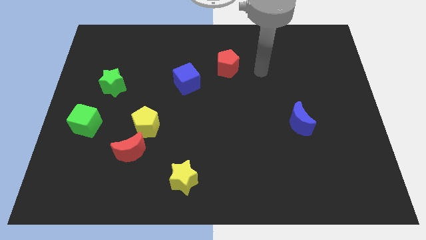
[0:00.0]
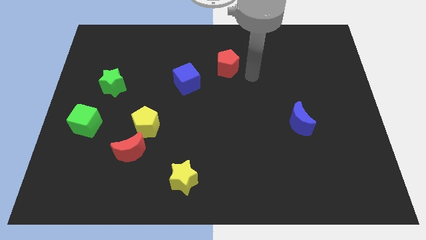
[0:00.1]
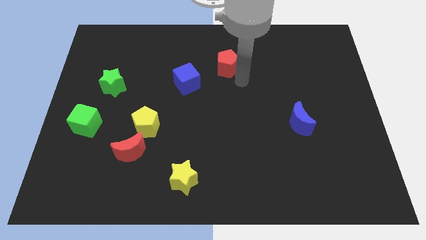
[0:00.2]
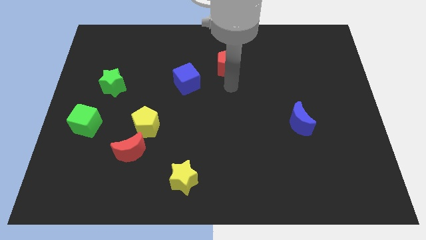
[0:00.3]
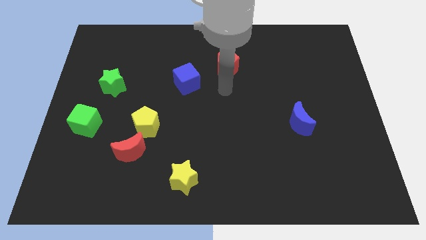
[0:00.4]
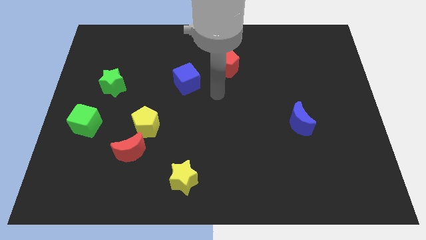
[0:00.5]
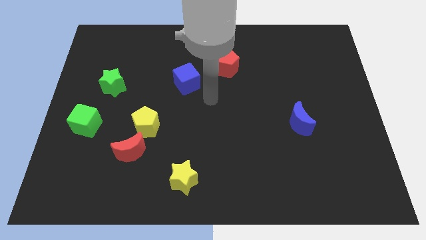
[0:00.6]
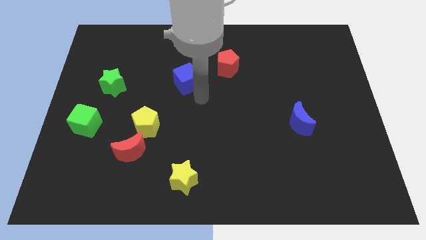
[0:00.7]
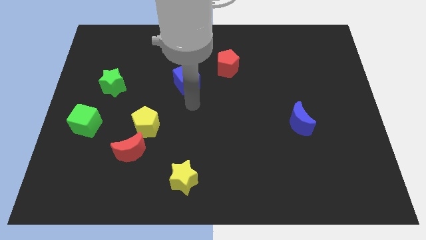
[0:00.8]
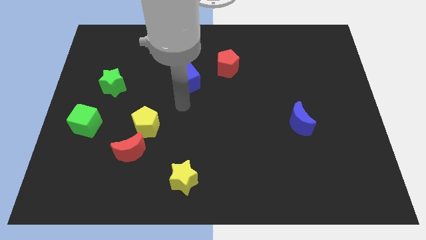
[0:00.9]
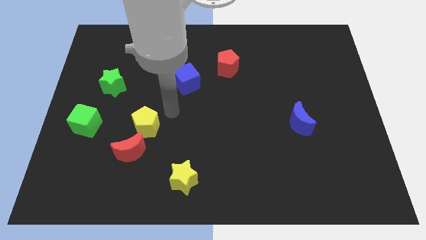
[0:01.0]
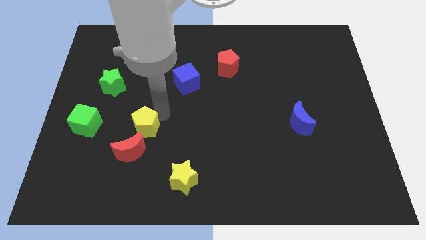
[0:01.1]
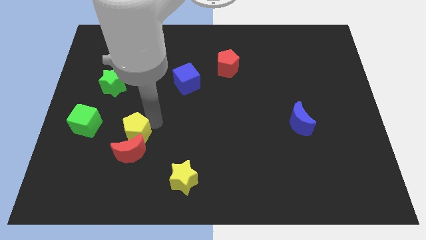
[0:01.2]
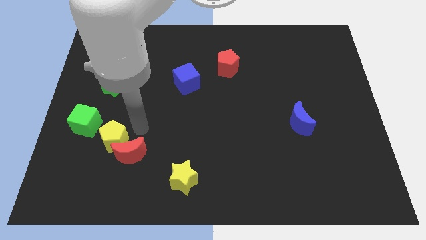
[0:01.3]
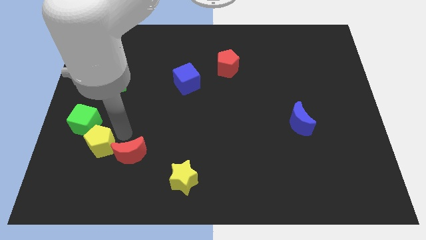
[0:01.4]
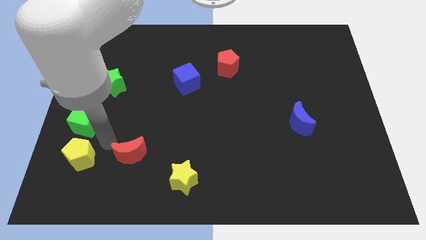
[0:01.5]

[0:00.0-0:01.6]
separate the red moon from the yellow pentagon

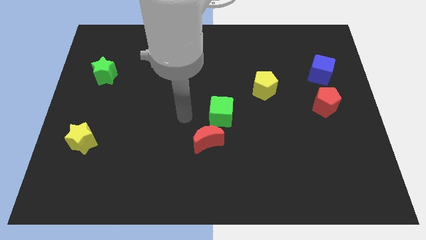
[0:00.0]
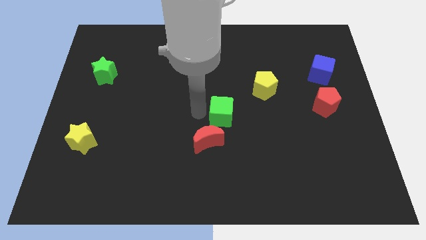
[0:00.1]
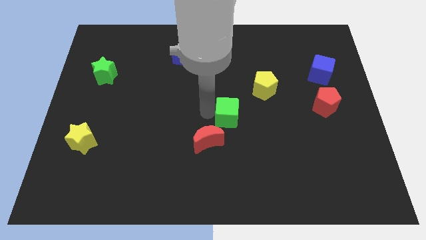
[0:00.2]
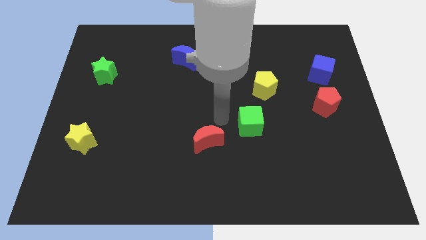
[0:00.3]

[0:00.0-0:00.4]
move the red moon away from the green cube

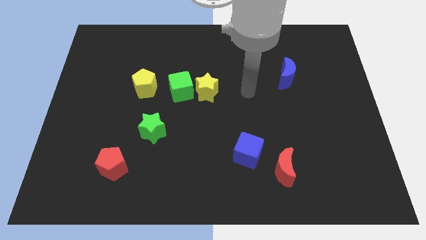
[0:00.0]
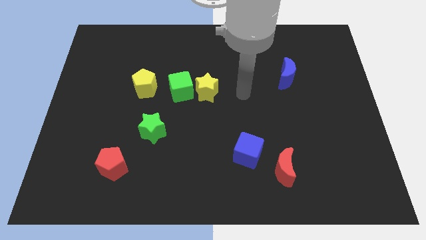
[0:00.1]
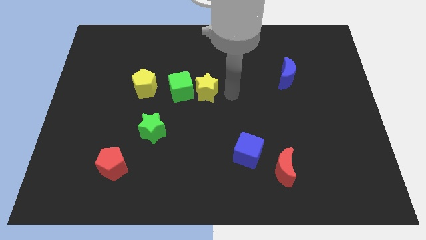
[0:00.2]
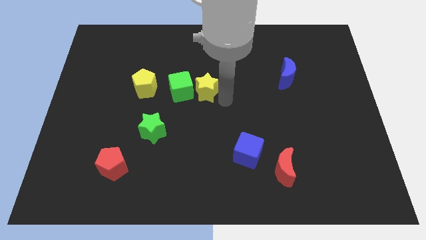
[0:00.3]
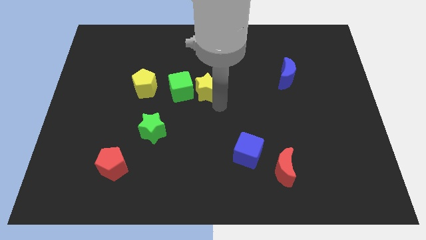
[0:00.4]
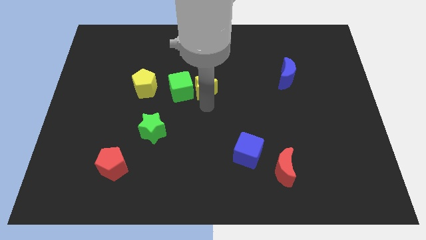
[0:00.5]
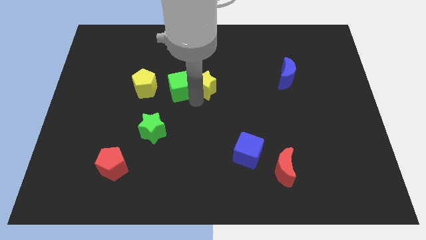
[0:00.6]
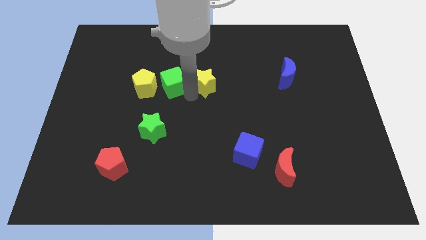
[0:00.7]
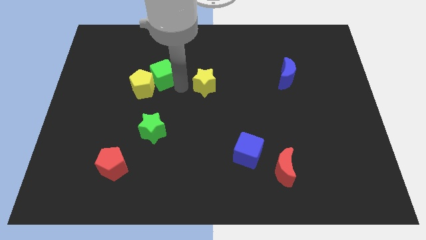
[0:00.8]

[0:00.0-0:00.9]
pull the yellow star apart from the green cube

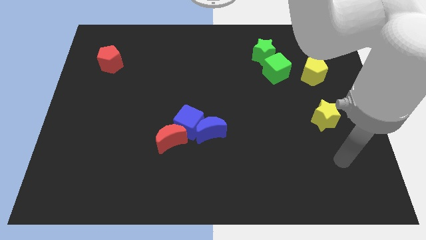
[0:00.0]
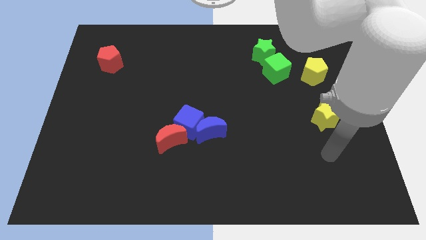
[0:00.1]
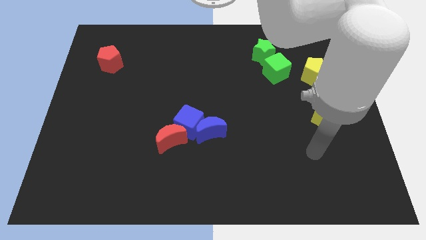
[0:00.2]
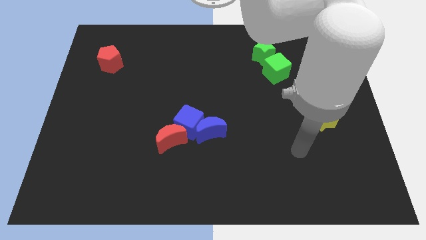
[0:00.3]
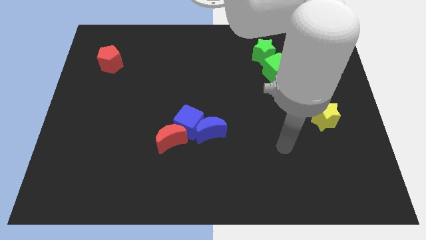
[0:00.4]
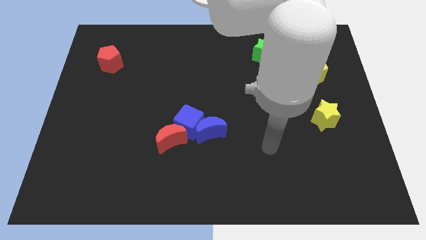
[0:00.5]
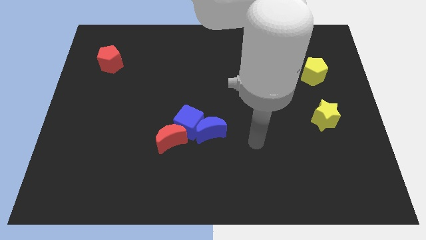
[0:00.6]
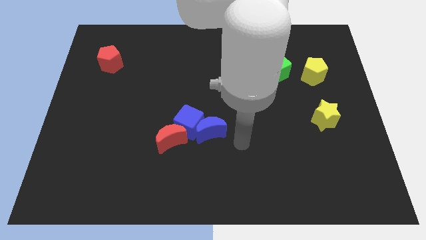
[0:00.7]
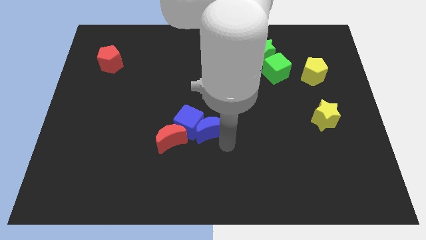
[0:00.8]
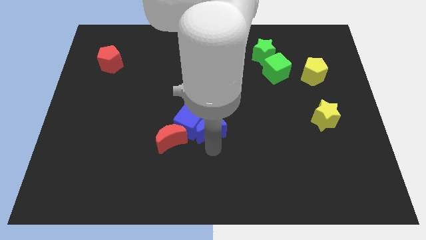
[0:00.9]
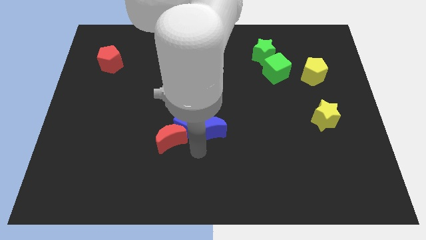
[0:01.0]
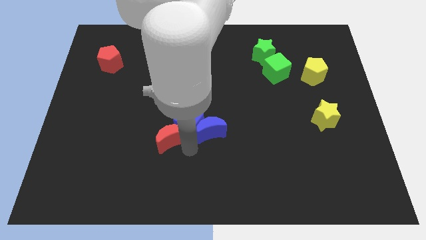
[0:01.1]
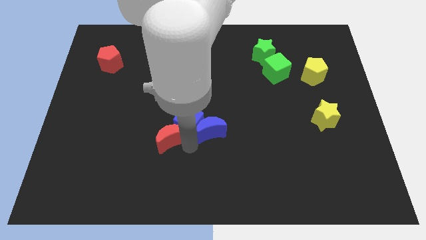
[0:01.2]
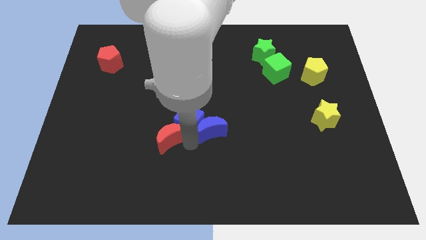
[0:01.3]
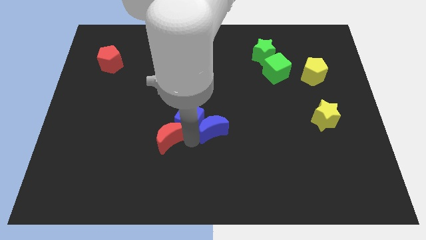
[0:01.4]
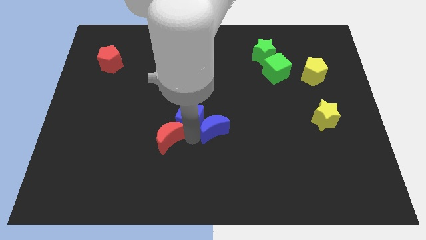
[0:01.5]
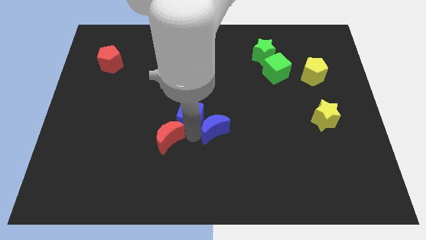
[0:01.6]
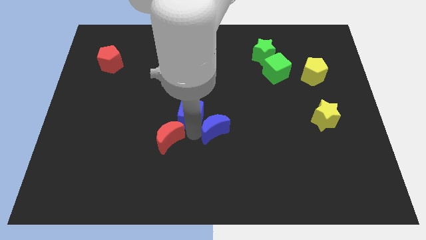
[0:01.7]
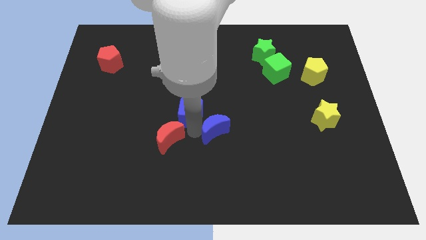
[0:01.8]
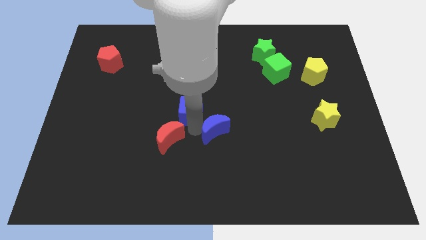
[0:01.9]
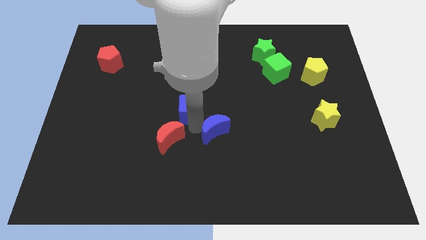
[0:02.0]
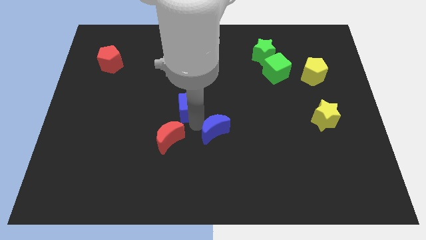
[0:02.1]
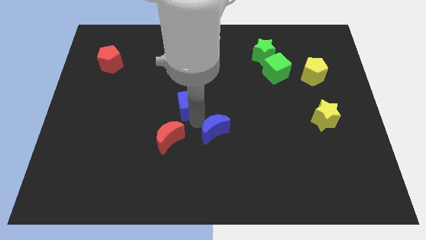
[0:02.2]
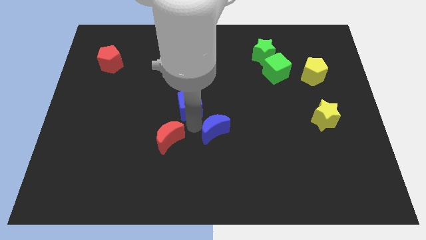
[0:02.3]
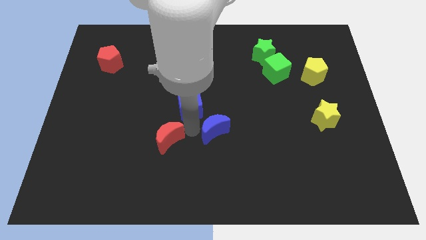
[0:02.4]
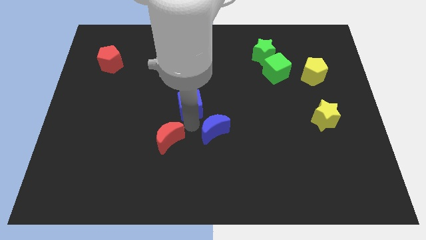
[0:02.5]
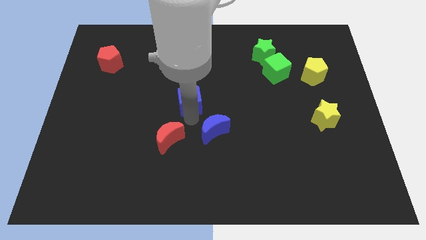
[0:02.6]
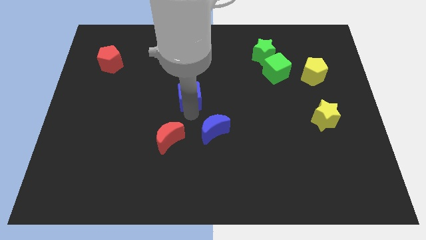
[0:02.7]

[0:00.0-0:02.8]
move the blue cube away from the blue moon and red moon

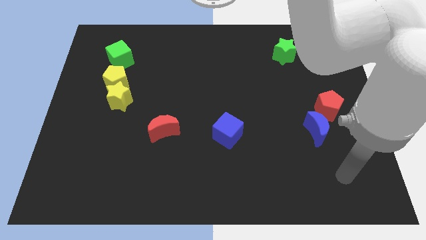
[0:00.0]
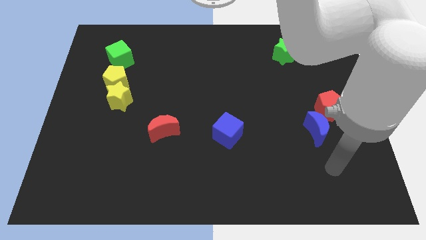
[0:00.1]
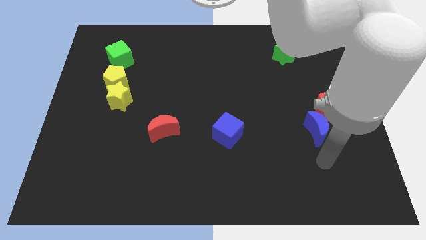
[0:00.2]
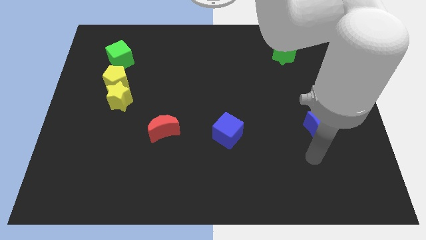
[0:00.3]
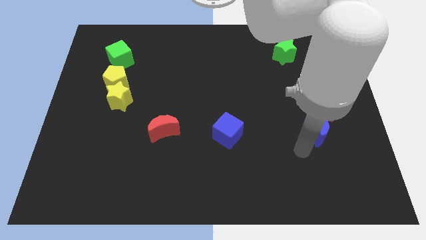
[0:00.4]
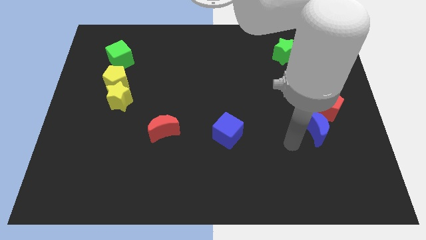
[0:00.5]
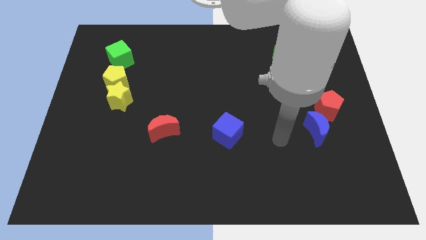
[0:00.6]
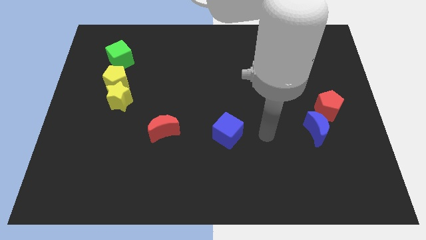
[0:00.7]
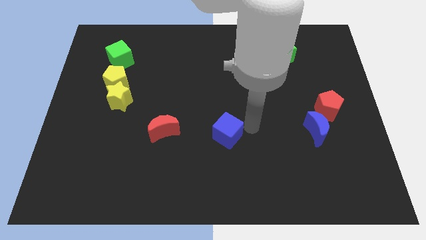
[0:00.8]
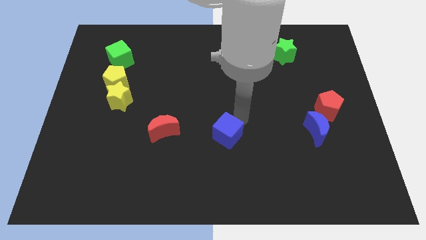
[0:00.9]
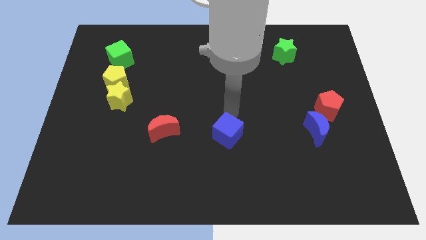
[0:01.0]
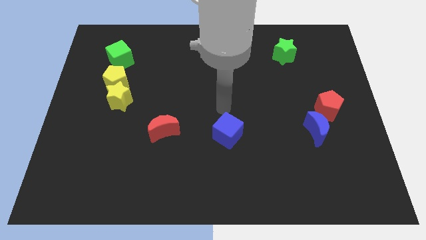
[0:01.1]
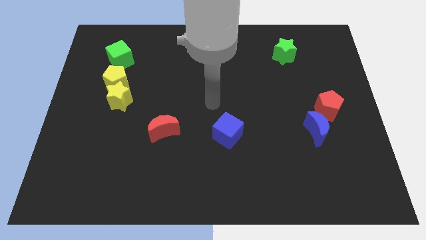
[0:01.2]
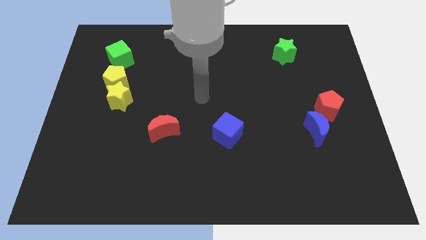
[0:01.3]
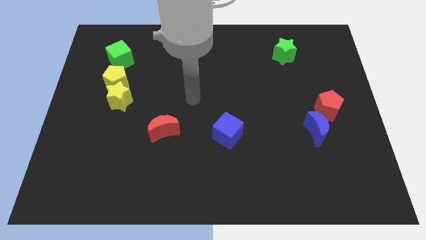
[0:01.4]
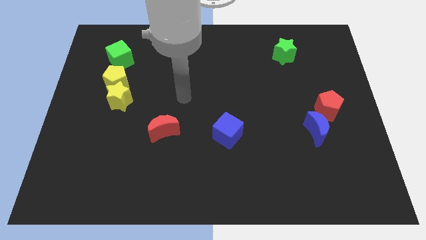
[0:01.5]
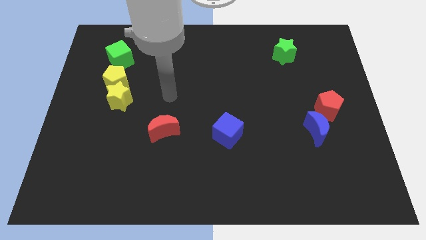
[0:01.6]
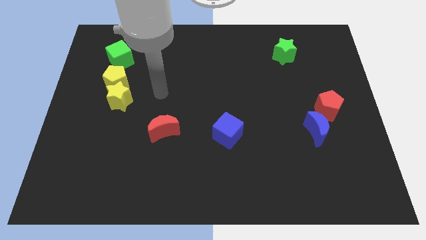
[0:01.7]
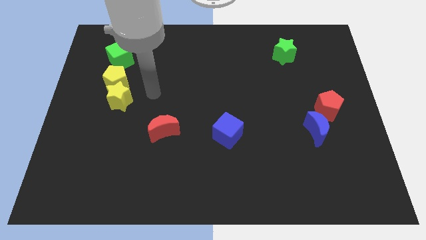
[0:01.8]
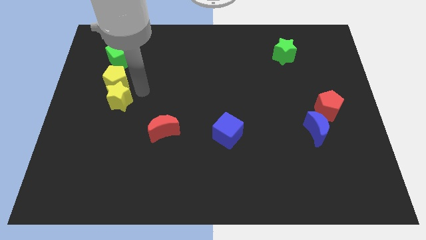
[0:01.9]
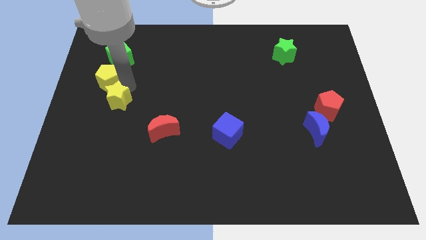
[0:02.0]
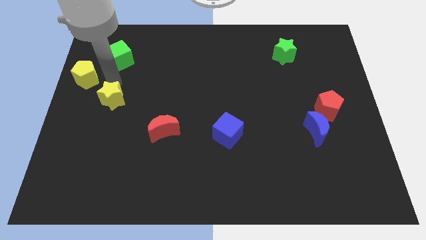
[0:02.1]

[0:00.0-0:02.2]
separate the yellow star from the yellow pentagon

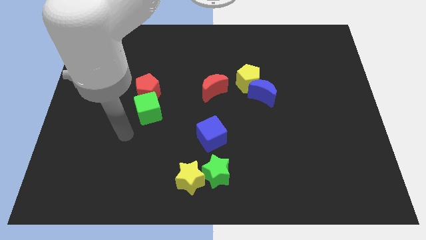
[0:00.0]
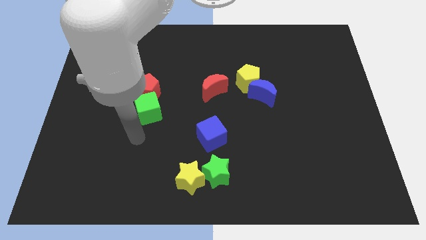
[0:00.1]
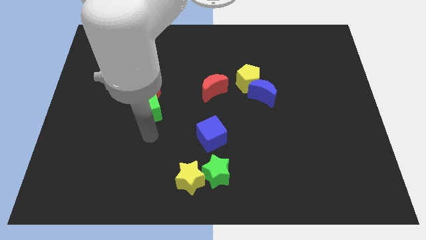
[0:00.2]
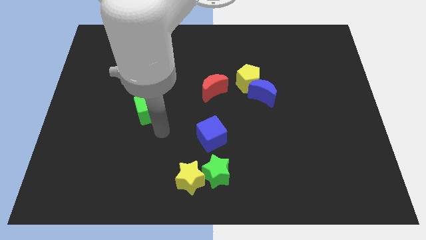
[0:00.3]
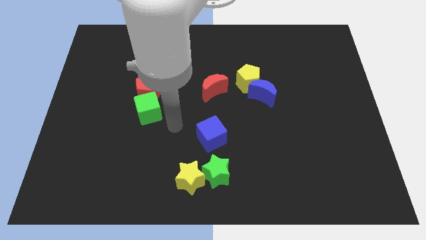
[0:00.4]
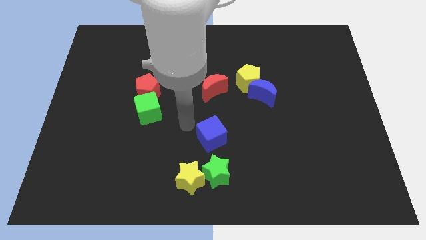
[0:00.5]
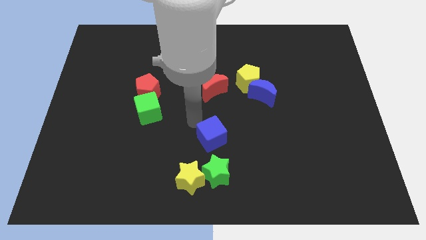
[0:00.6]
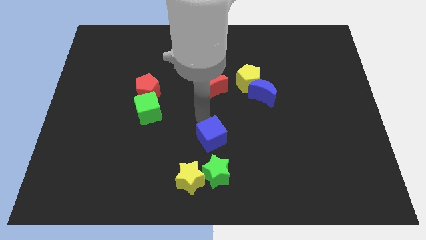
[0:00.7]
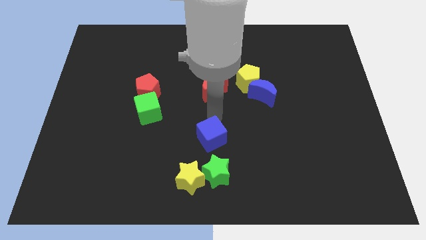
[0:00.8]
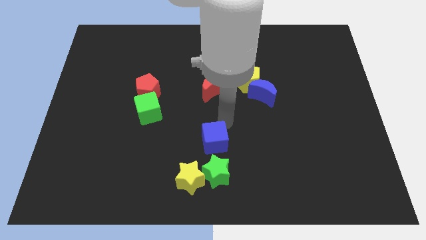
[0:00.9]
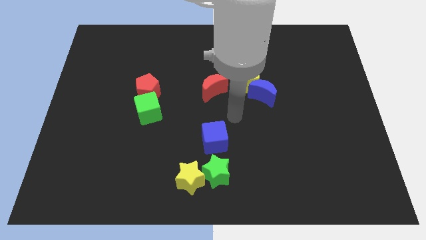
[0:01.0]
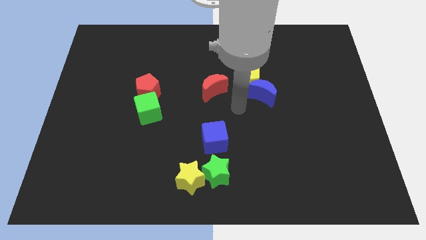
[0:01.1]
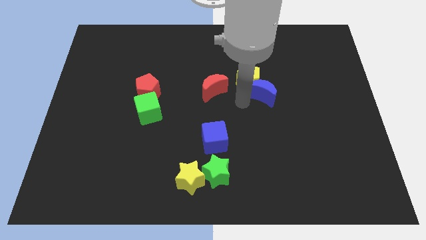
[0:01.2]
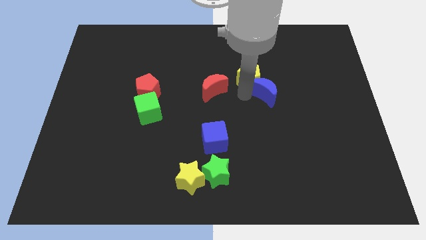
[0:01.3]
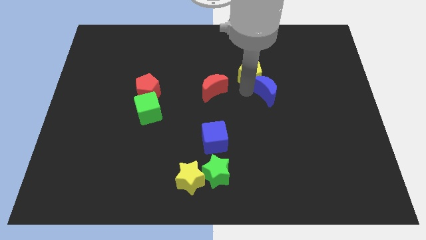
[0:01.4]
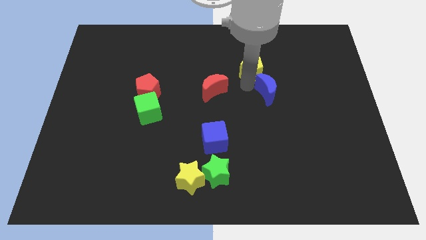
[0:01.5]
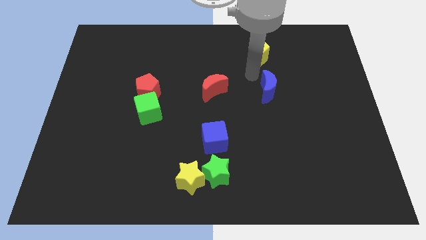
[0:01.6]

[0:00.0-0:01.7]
move the blue moon away from the yellow pentagon
